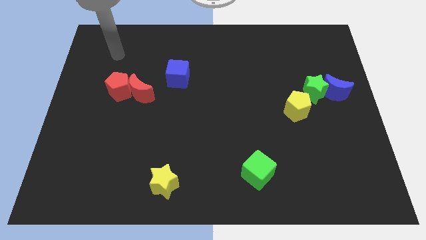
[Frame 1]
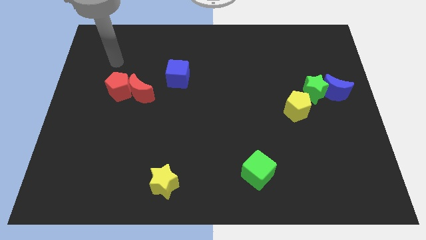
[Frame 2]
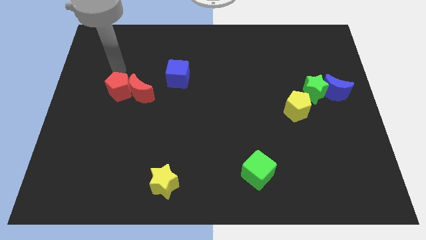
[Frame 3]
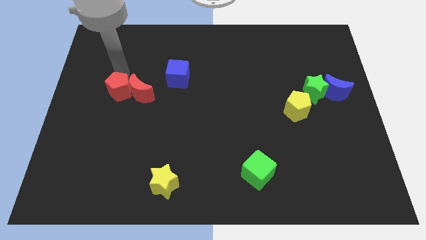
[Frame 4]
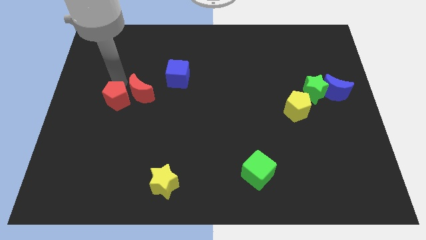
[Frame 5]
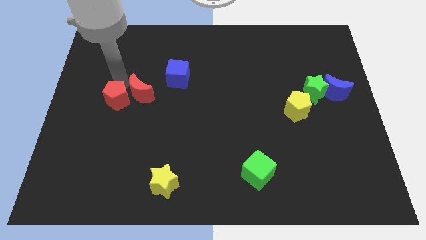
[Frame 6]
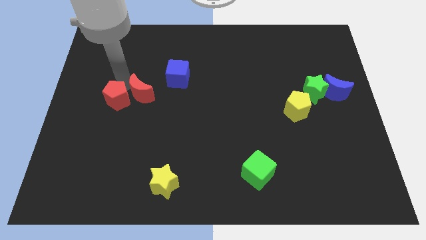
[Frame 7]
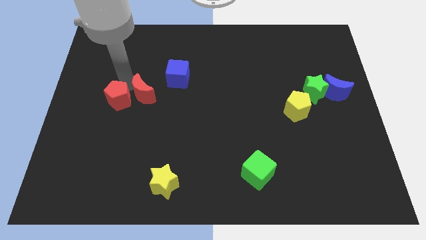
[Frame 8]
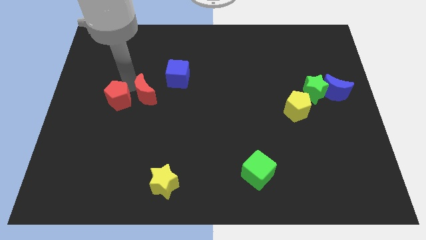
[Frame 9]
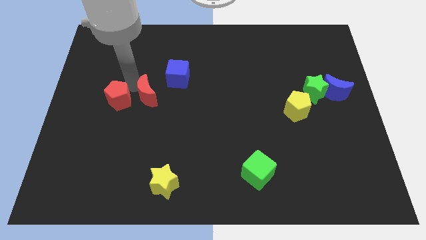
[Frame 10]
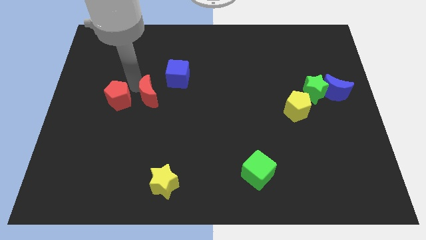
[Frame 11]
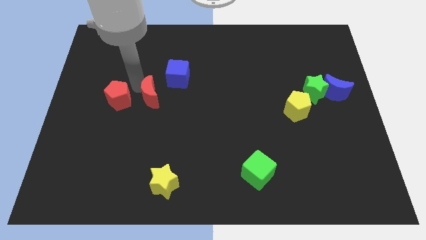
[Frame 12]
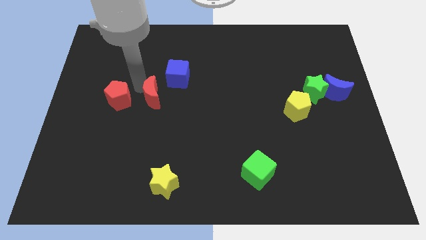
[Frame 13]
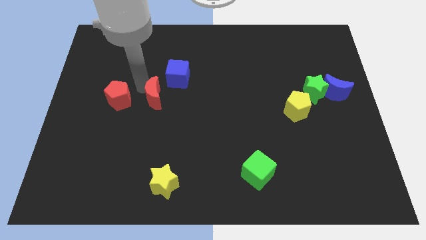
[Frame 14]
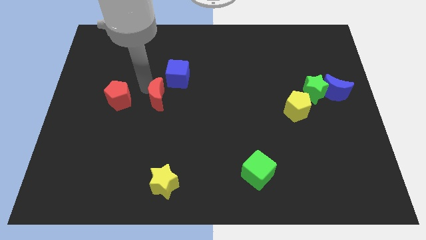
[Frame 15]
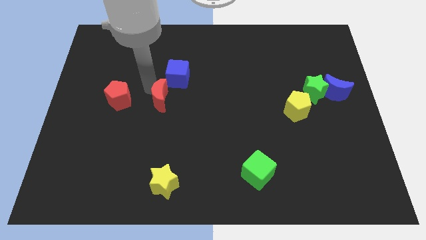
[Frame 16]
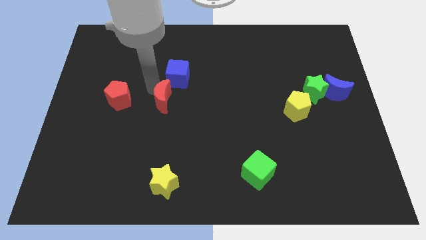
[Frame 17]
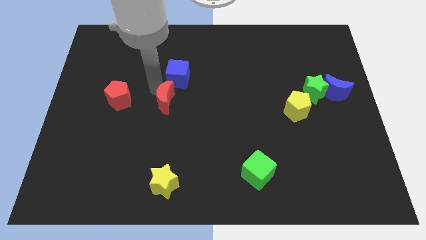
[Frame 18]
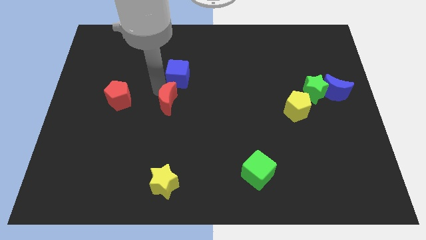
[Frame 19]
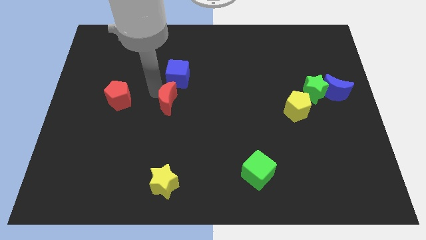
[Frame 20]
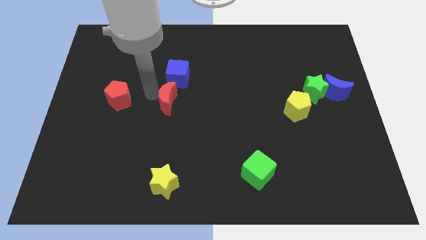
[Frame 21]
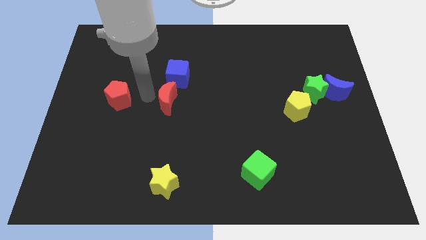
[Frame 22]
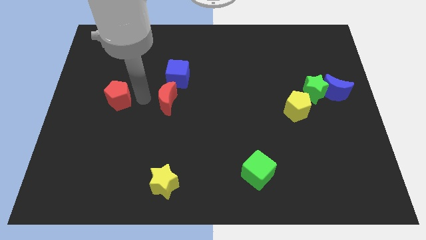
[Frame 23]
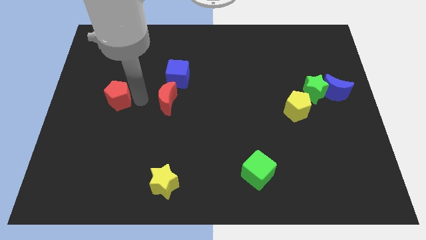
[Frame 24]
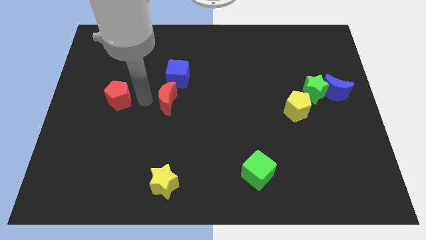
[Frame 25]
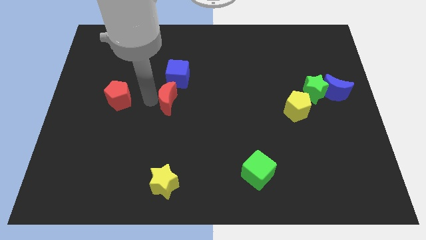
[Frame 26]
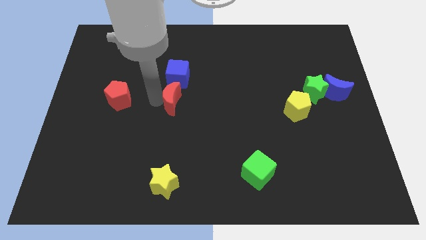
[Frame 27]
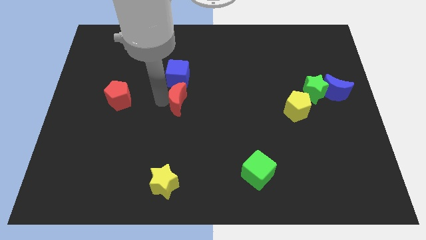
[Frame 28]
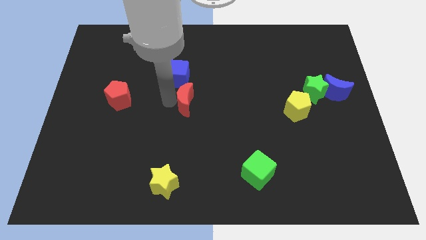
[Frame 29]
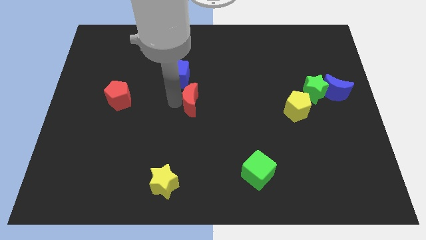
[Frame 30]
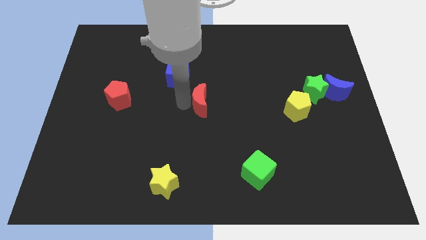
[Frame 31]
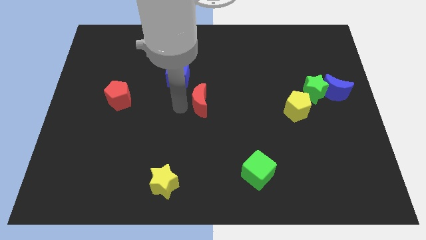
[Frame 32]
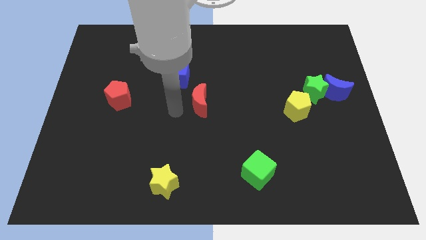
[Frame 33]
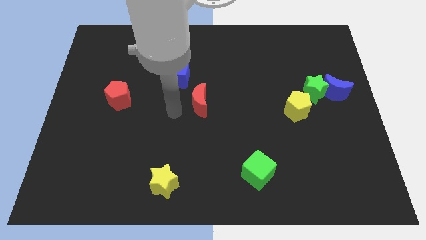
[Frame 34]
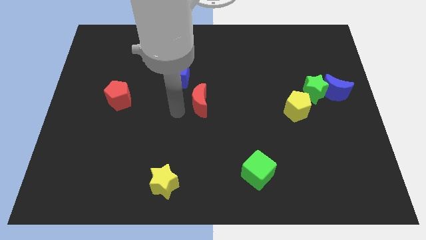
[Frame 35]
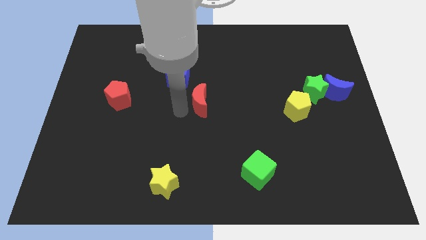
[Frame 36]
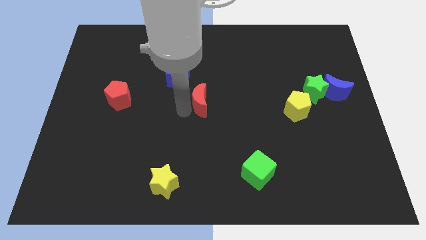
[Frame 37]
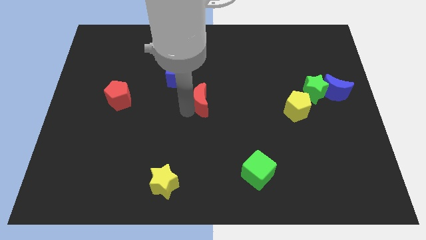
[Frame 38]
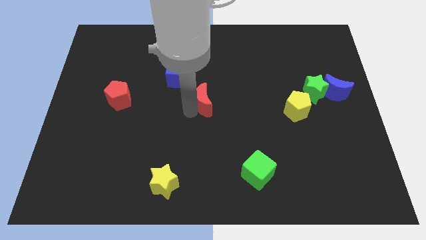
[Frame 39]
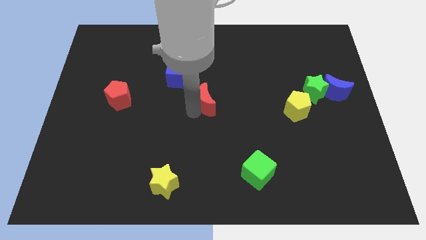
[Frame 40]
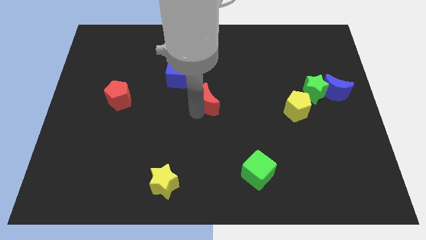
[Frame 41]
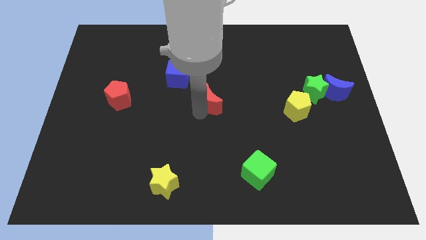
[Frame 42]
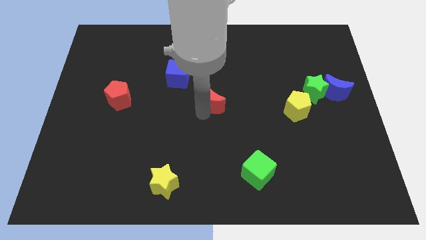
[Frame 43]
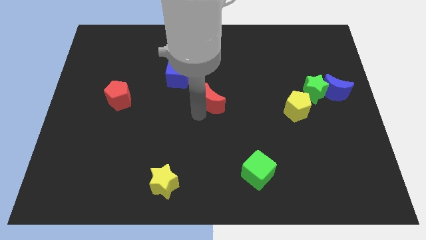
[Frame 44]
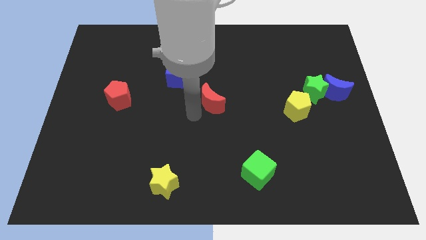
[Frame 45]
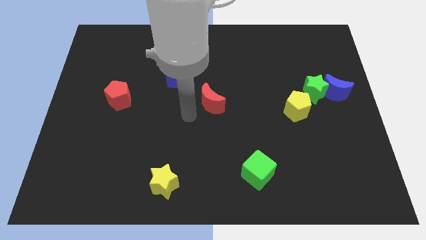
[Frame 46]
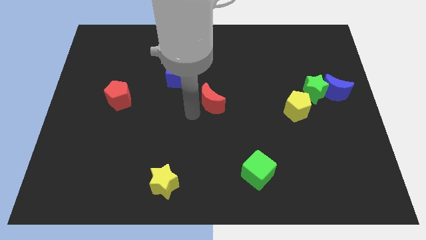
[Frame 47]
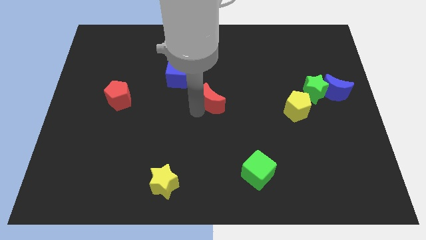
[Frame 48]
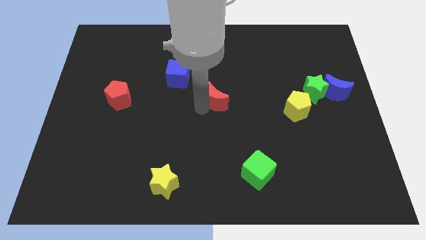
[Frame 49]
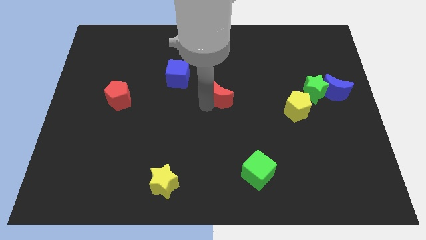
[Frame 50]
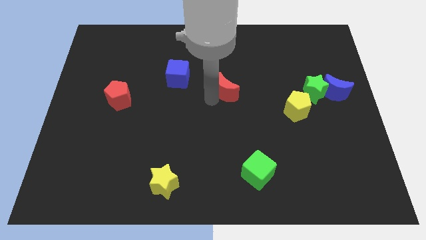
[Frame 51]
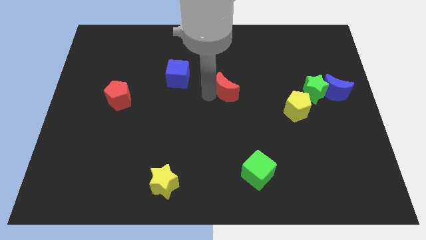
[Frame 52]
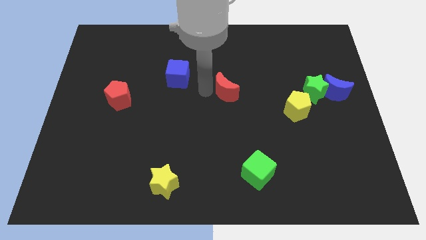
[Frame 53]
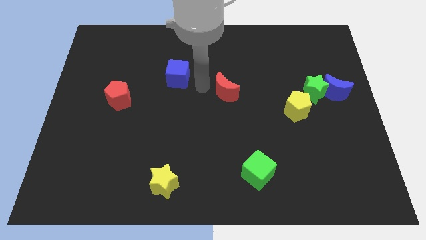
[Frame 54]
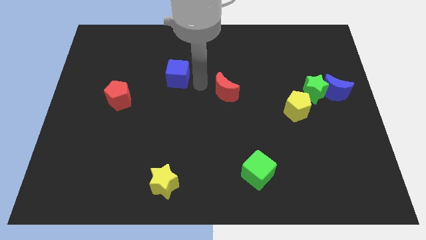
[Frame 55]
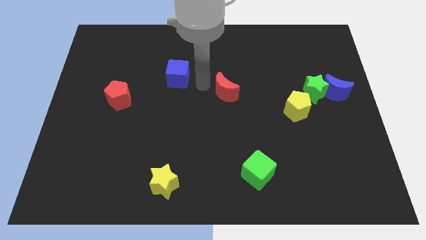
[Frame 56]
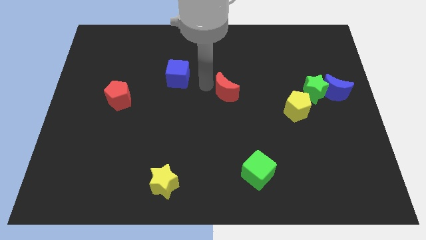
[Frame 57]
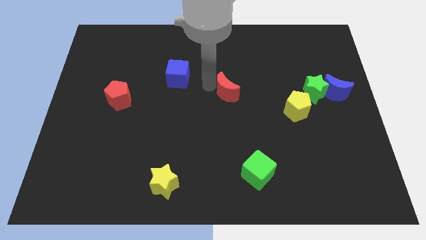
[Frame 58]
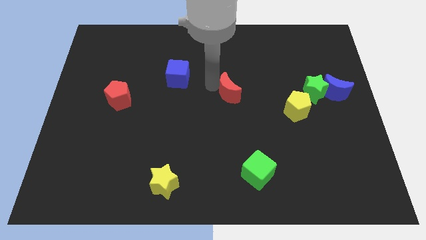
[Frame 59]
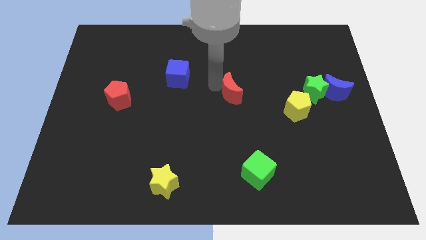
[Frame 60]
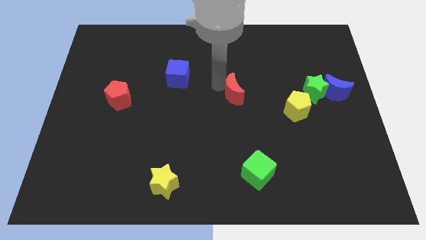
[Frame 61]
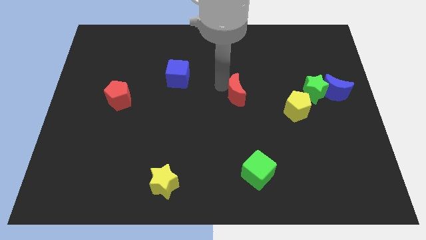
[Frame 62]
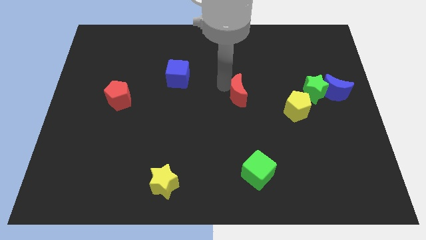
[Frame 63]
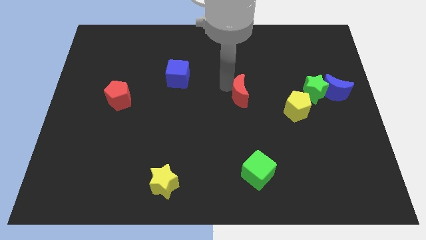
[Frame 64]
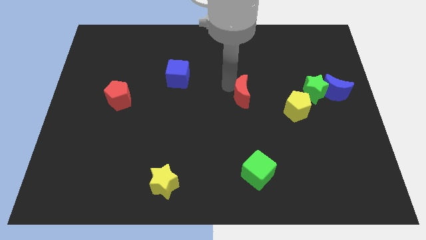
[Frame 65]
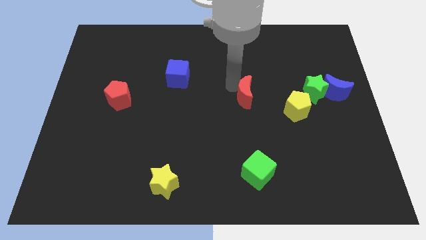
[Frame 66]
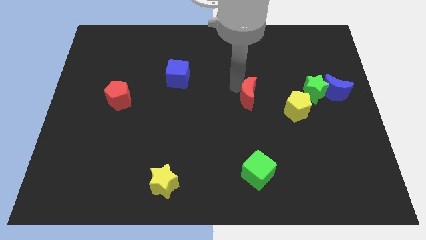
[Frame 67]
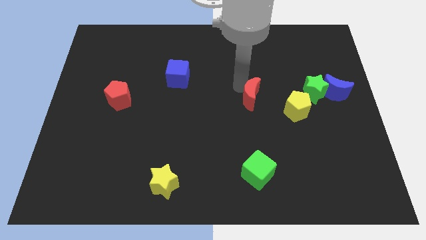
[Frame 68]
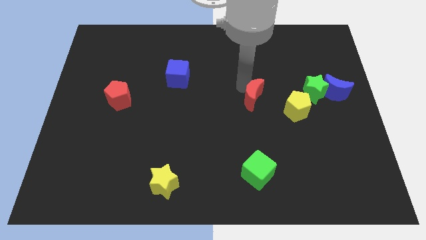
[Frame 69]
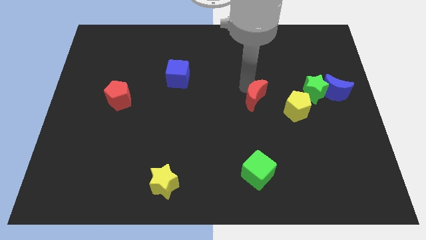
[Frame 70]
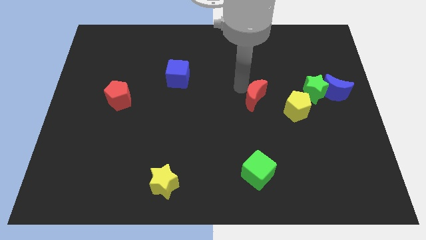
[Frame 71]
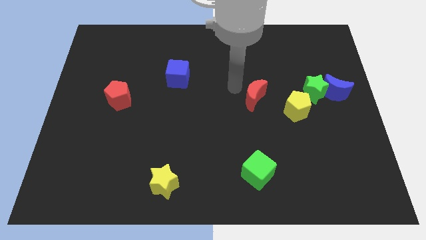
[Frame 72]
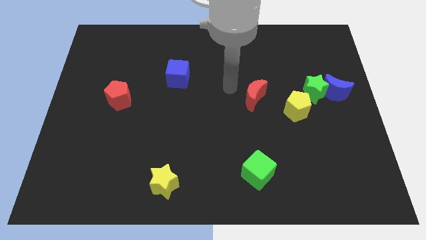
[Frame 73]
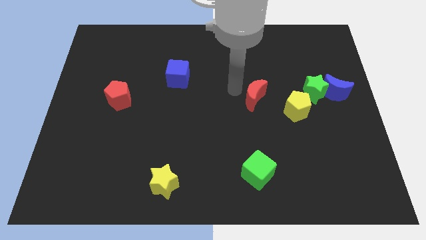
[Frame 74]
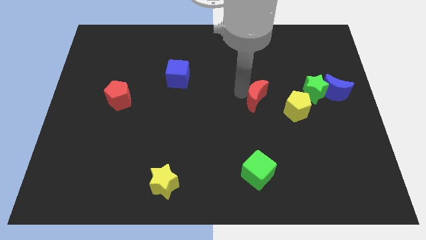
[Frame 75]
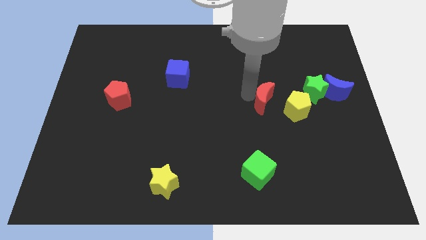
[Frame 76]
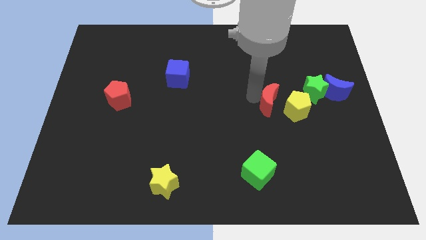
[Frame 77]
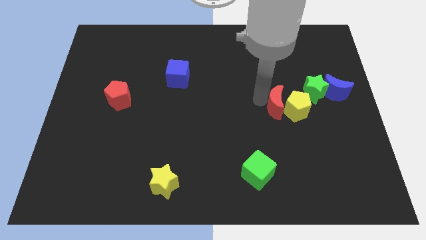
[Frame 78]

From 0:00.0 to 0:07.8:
put the red moon towards the yellow pentagon
